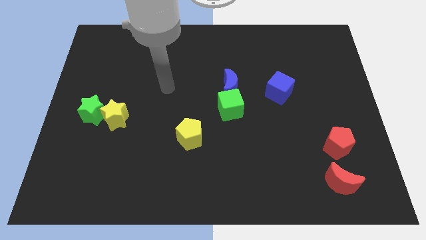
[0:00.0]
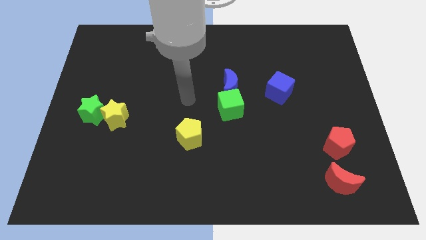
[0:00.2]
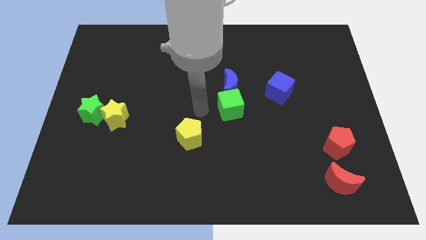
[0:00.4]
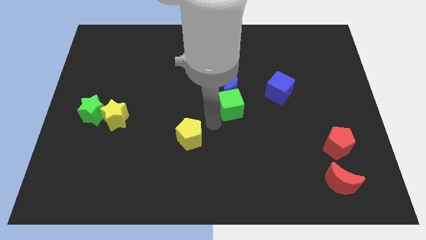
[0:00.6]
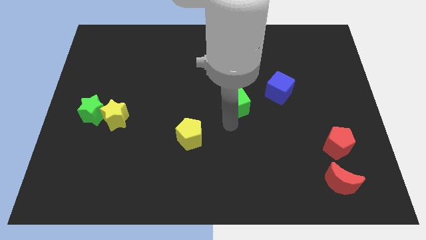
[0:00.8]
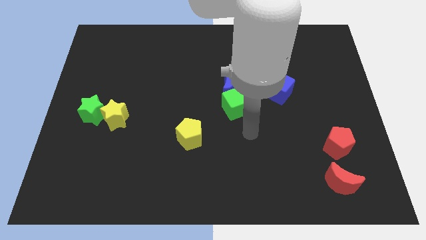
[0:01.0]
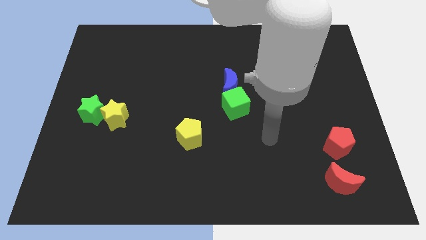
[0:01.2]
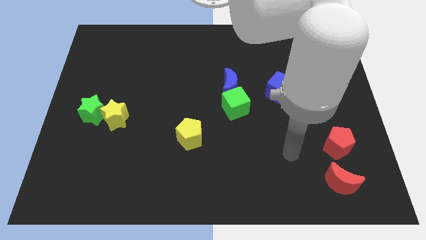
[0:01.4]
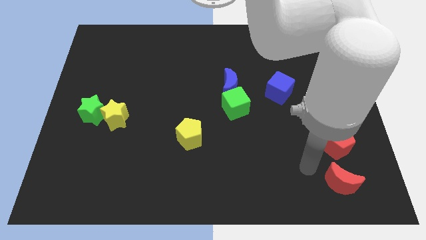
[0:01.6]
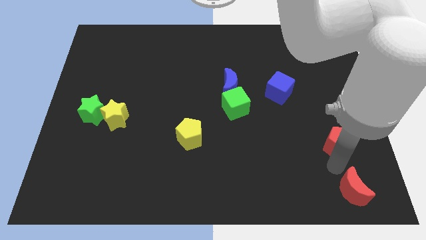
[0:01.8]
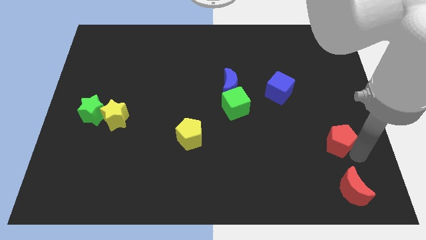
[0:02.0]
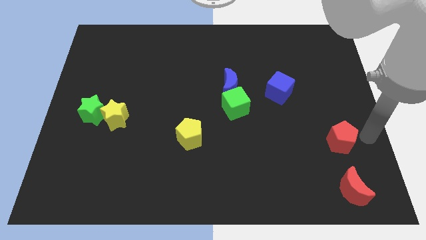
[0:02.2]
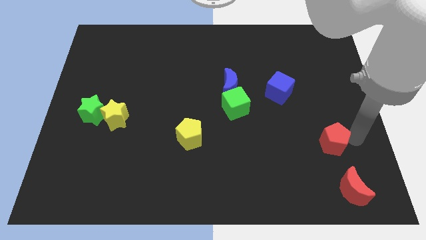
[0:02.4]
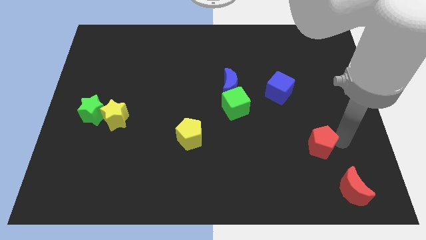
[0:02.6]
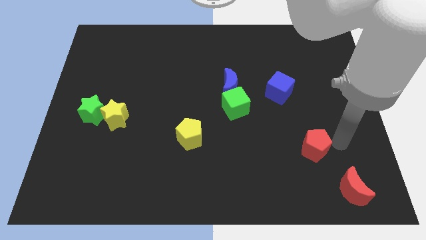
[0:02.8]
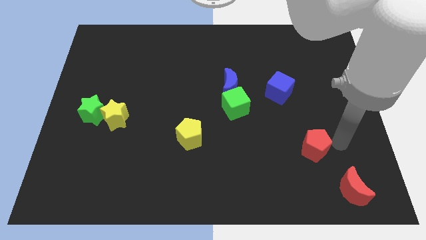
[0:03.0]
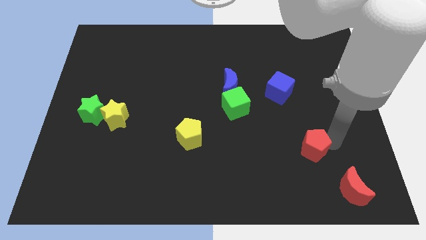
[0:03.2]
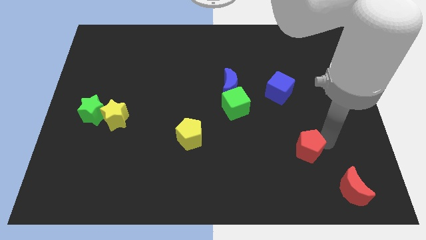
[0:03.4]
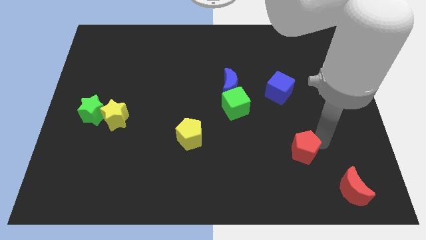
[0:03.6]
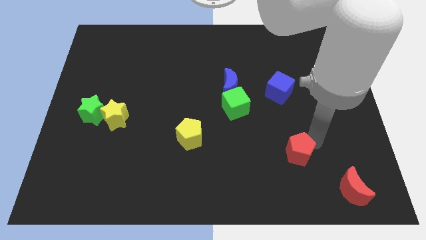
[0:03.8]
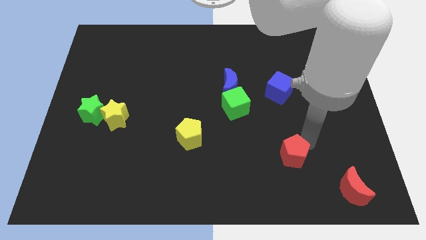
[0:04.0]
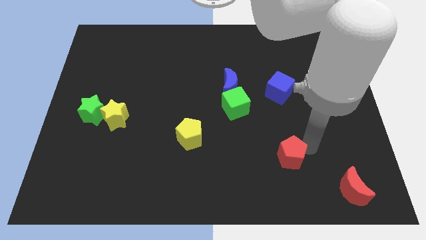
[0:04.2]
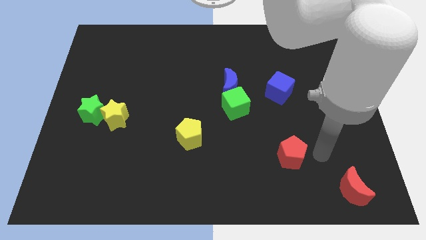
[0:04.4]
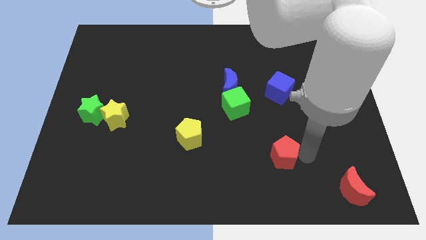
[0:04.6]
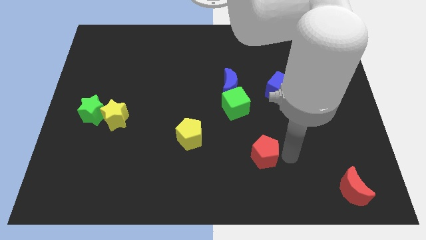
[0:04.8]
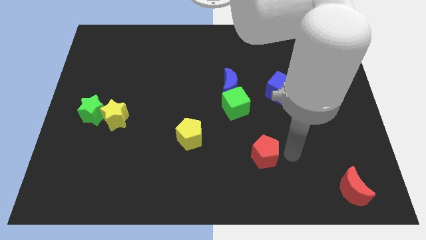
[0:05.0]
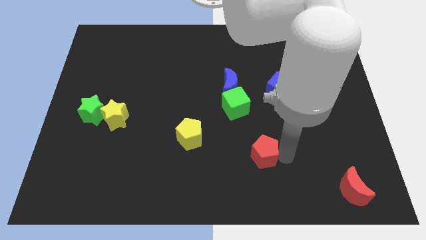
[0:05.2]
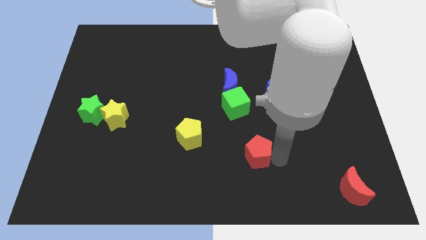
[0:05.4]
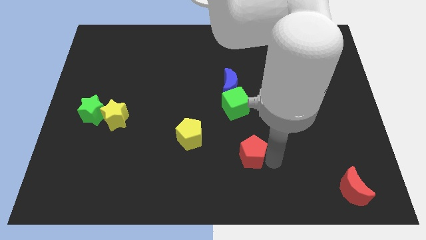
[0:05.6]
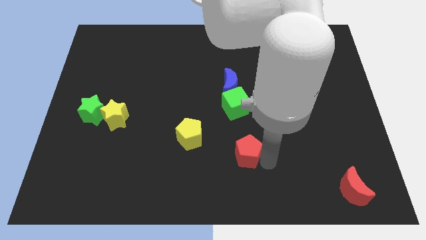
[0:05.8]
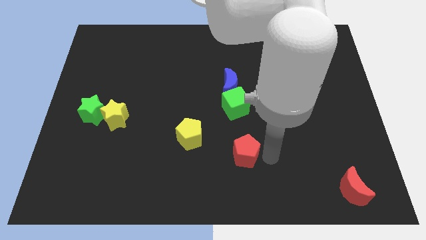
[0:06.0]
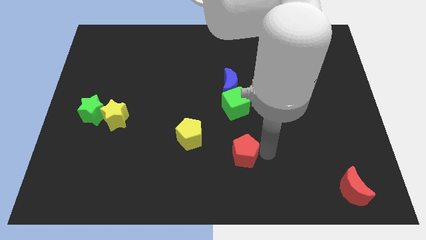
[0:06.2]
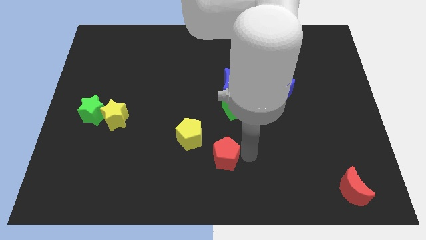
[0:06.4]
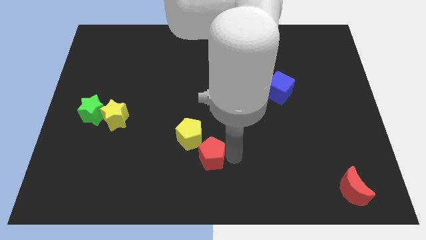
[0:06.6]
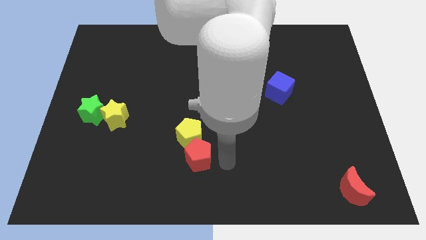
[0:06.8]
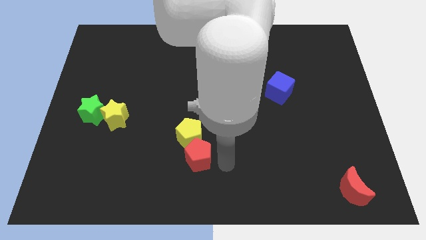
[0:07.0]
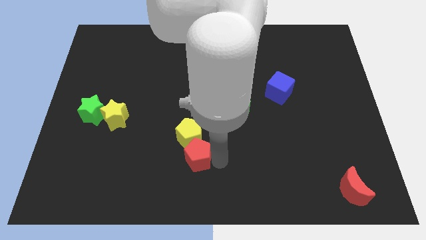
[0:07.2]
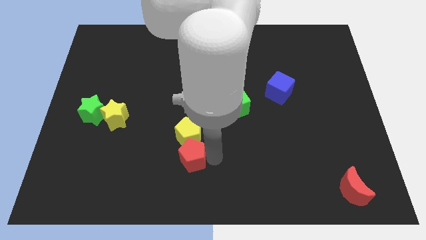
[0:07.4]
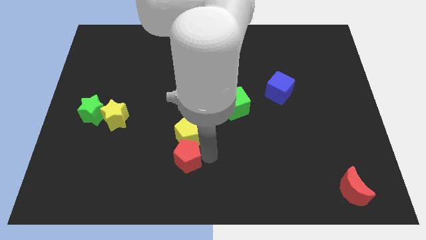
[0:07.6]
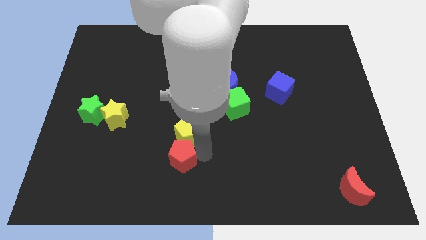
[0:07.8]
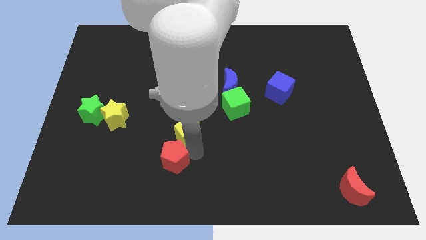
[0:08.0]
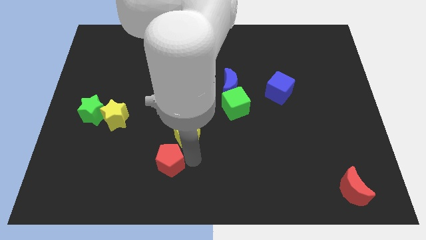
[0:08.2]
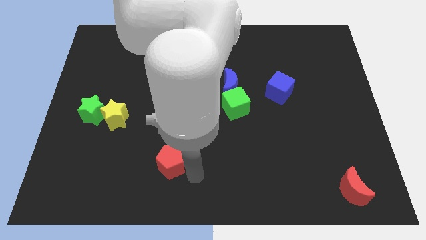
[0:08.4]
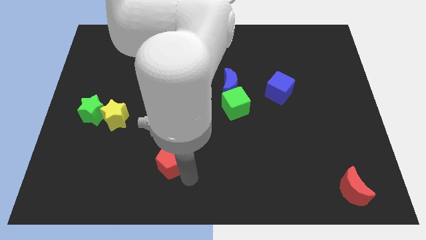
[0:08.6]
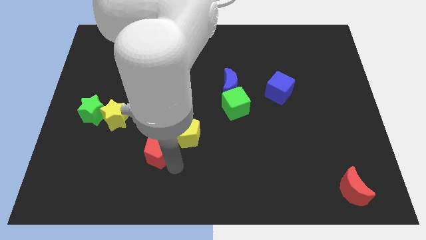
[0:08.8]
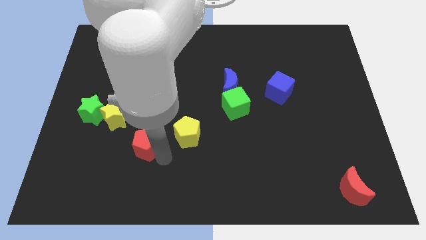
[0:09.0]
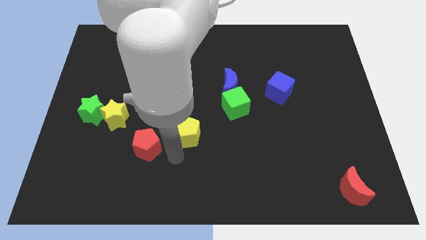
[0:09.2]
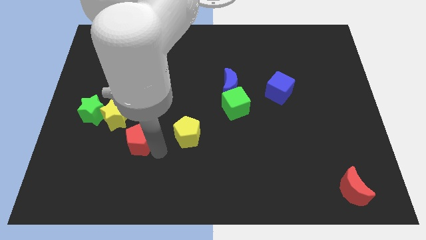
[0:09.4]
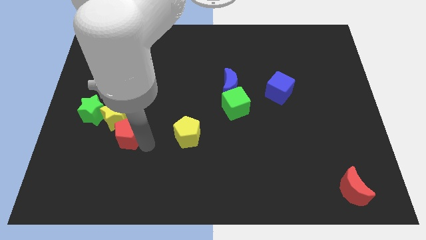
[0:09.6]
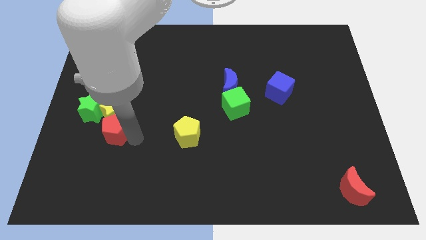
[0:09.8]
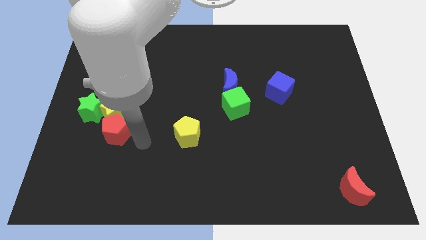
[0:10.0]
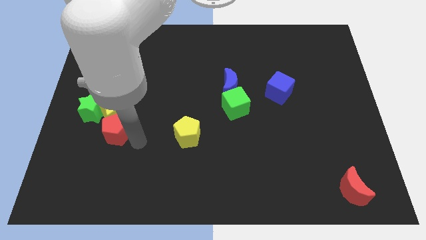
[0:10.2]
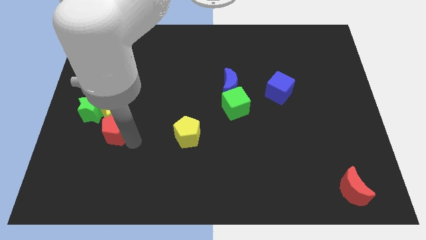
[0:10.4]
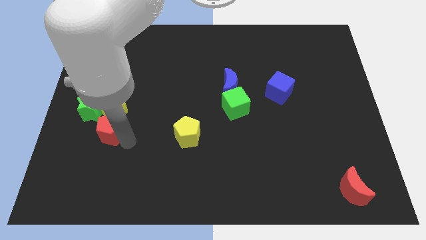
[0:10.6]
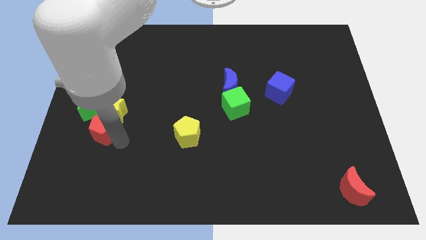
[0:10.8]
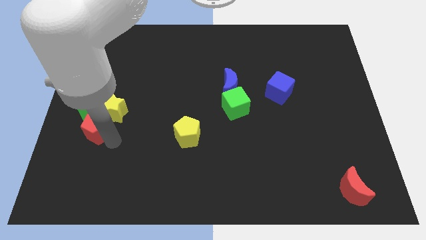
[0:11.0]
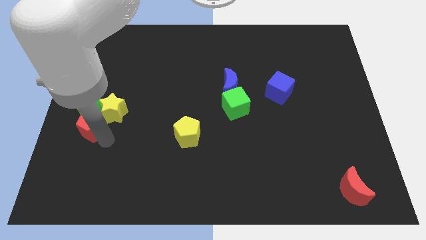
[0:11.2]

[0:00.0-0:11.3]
move the red pentagon next to the green star
